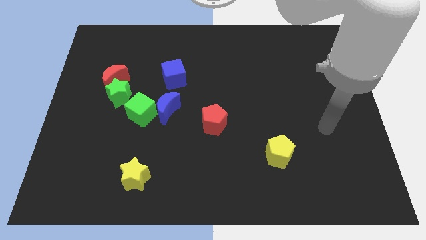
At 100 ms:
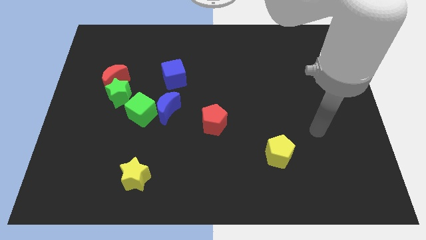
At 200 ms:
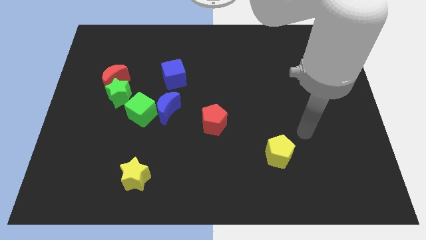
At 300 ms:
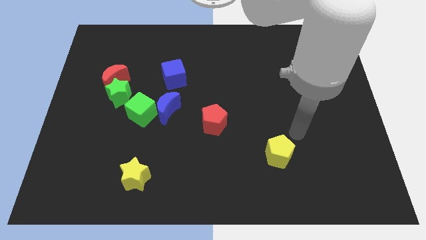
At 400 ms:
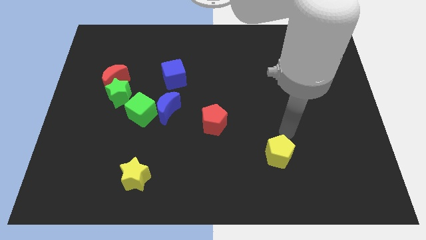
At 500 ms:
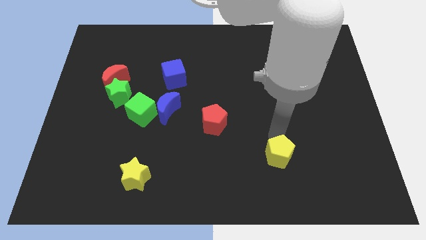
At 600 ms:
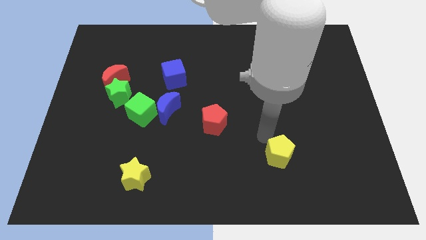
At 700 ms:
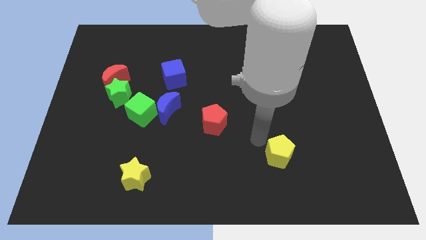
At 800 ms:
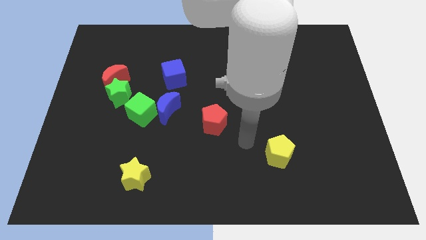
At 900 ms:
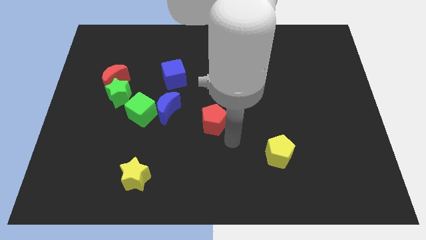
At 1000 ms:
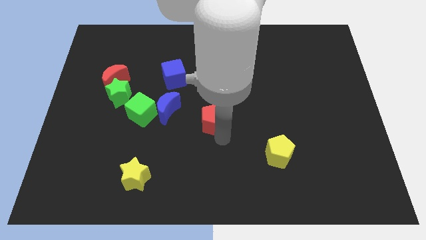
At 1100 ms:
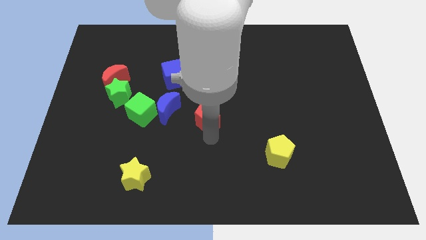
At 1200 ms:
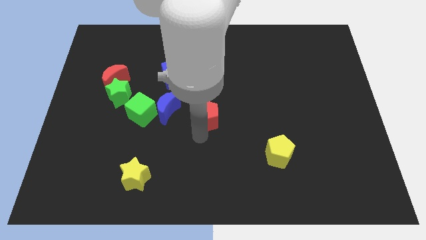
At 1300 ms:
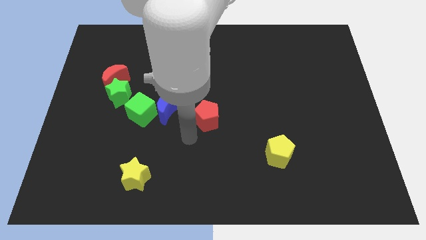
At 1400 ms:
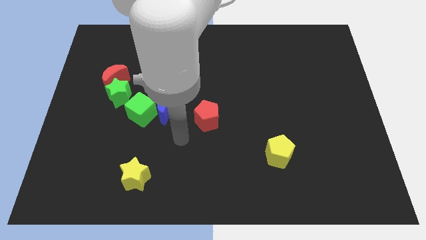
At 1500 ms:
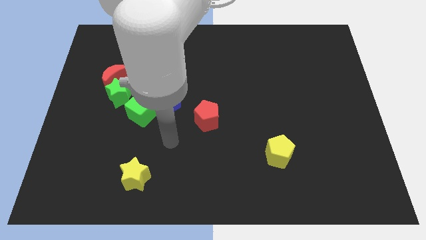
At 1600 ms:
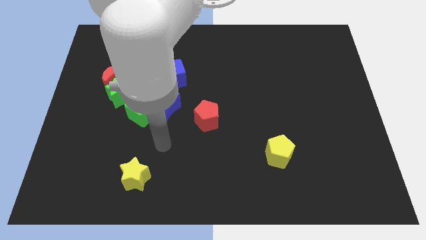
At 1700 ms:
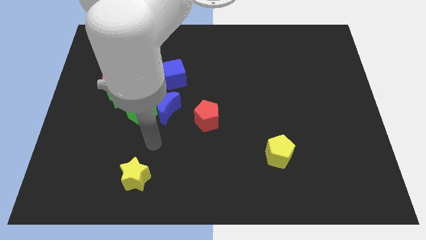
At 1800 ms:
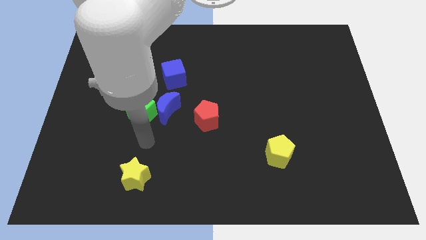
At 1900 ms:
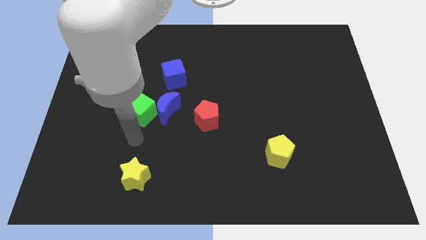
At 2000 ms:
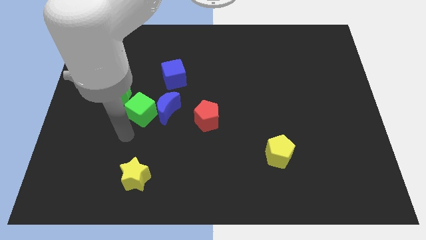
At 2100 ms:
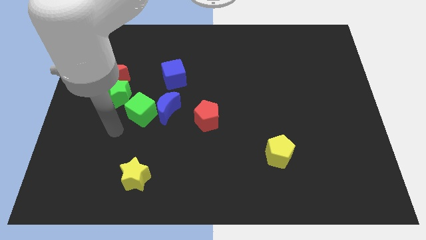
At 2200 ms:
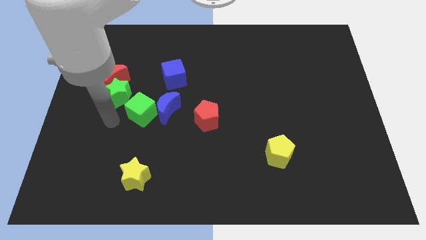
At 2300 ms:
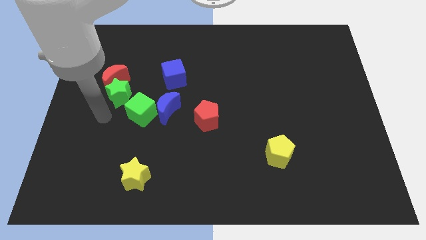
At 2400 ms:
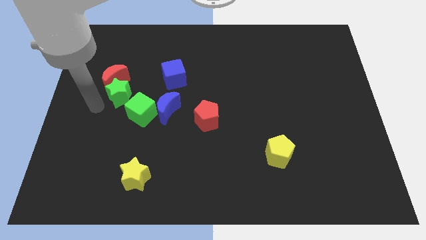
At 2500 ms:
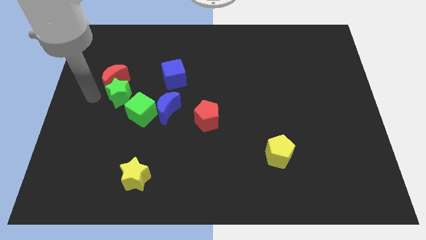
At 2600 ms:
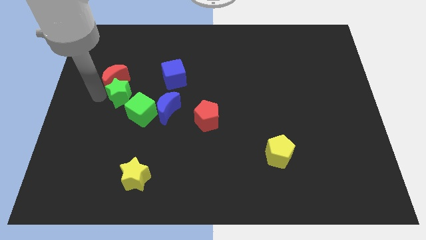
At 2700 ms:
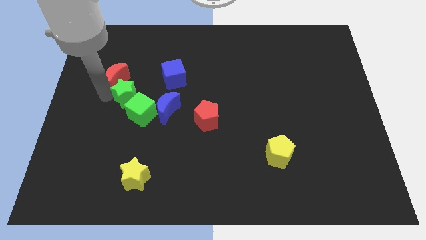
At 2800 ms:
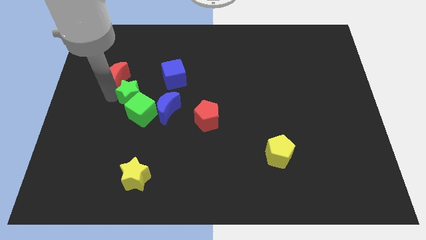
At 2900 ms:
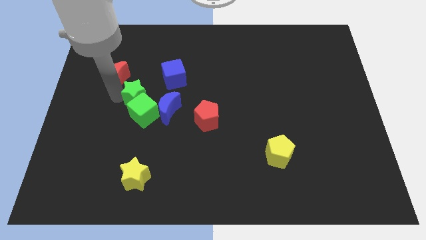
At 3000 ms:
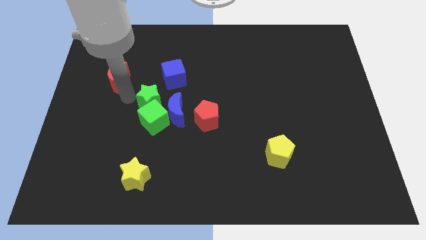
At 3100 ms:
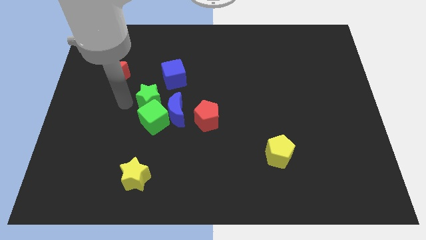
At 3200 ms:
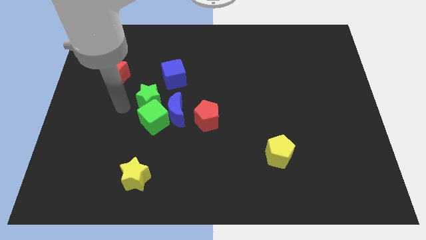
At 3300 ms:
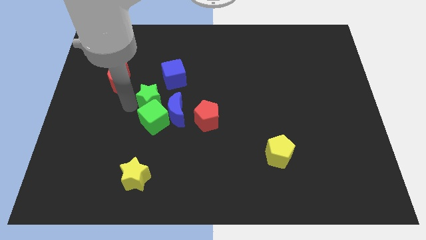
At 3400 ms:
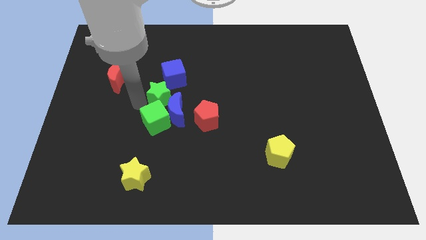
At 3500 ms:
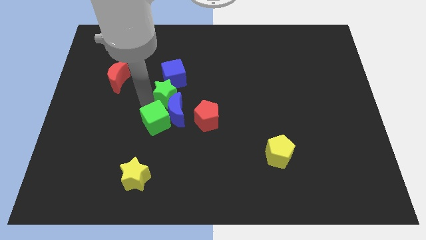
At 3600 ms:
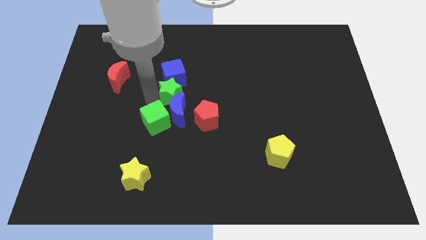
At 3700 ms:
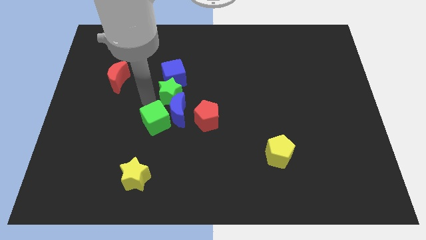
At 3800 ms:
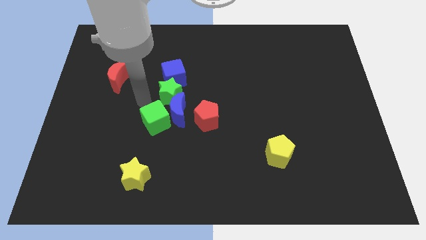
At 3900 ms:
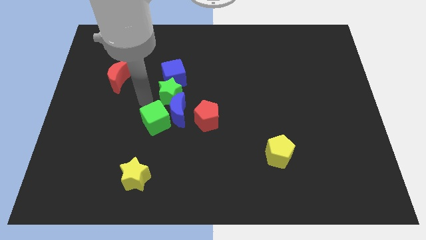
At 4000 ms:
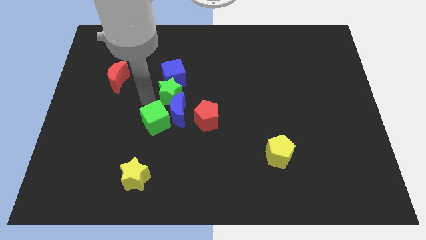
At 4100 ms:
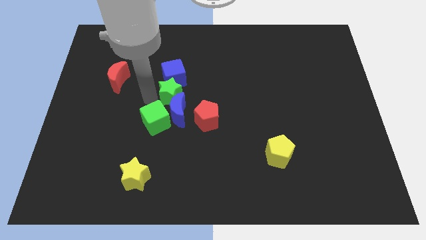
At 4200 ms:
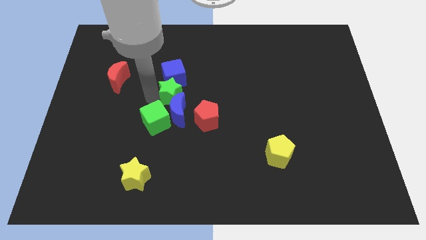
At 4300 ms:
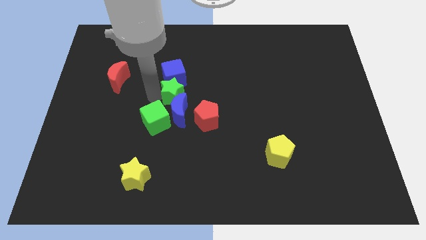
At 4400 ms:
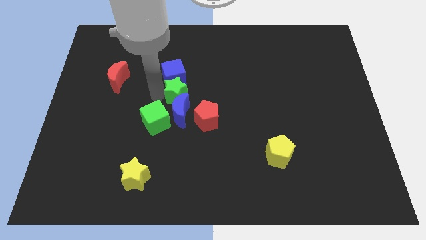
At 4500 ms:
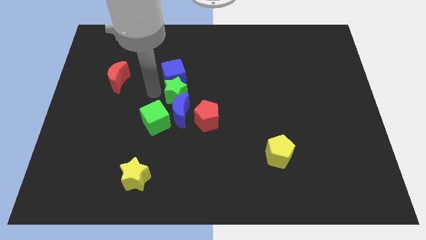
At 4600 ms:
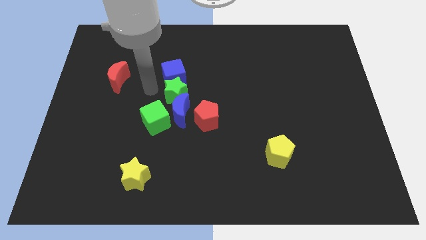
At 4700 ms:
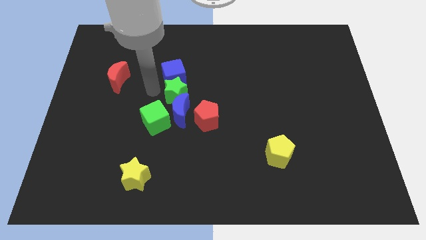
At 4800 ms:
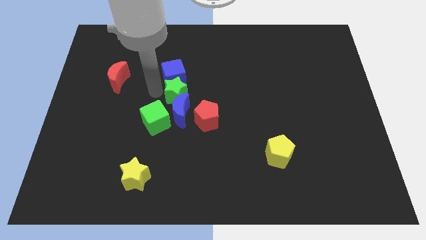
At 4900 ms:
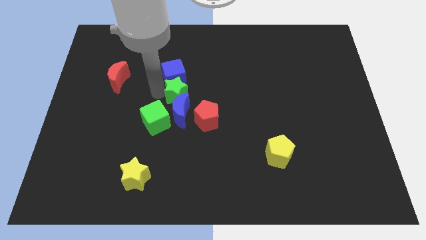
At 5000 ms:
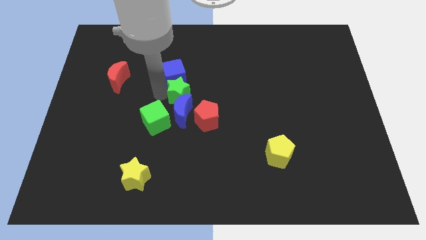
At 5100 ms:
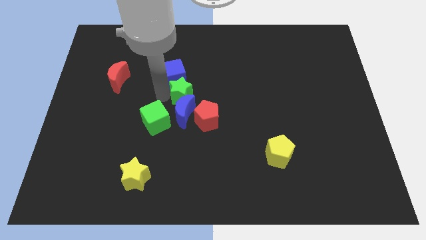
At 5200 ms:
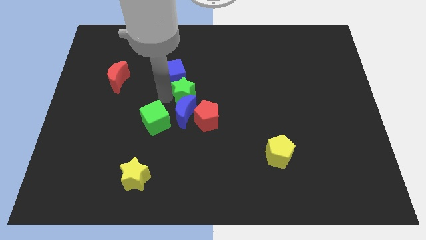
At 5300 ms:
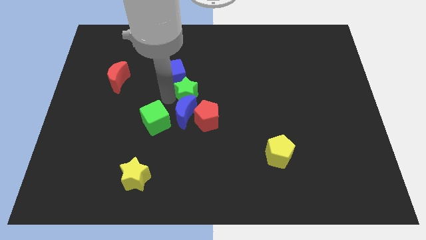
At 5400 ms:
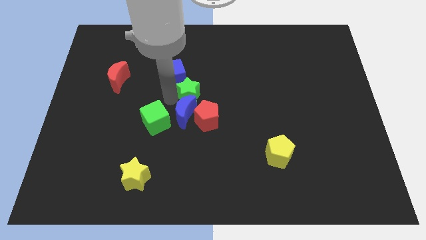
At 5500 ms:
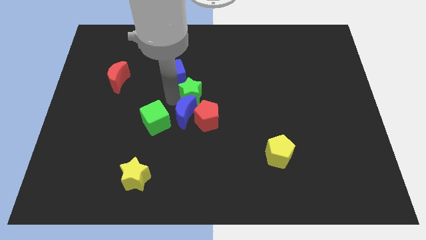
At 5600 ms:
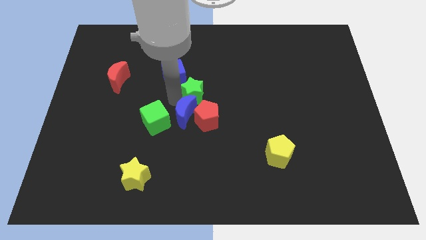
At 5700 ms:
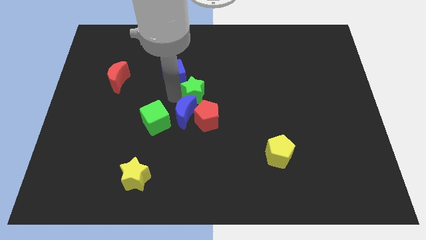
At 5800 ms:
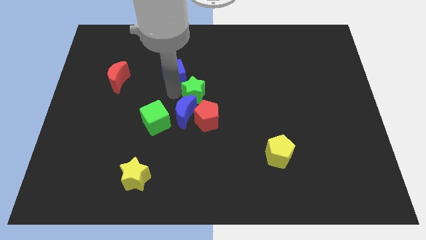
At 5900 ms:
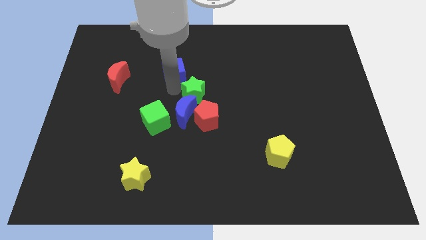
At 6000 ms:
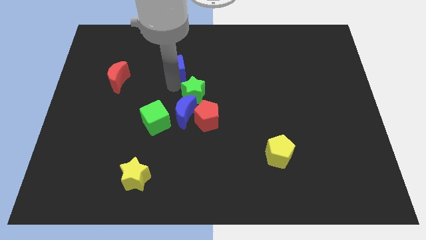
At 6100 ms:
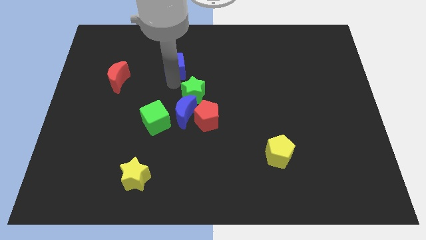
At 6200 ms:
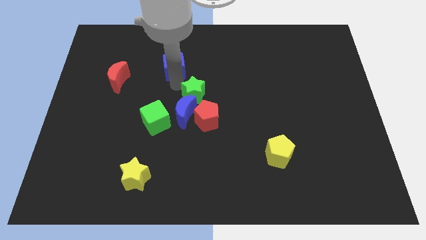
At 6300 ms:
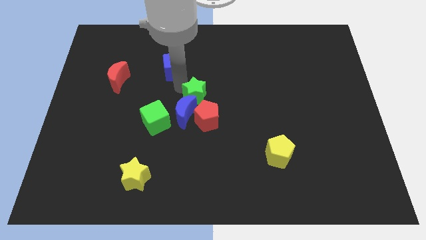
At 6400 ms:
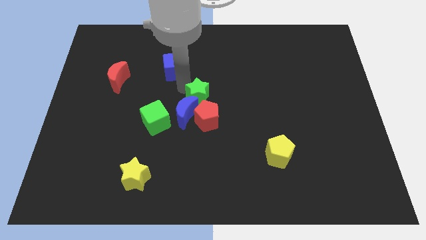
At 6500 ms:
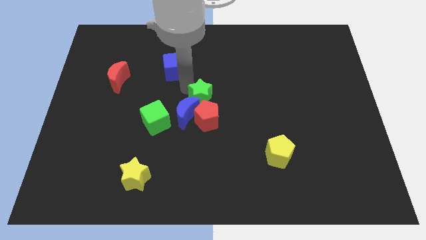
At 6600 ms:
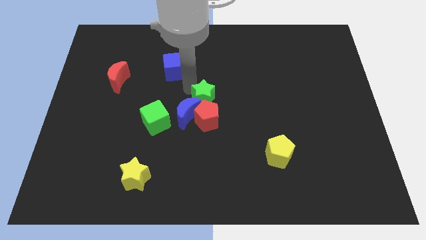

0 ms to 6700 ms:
push the green star close to the red pentagon

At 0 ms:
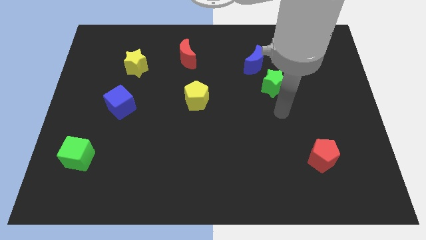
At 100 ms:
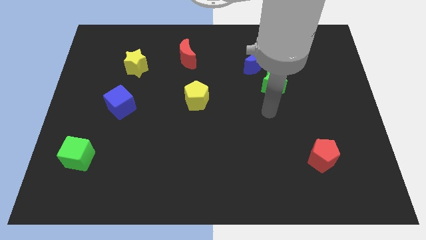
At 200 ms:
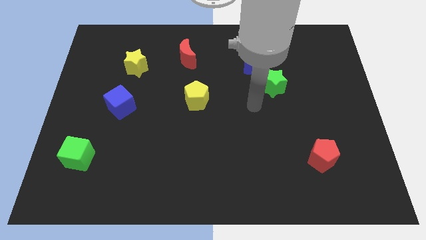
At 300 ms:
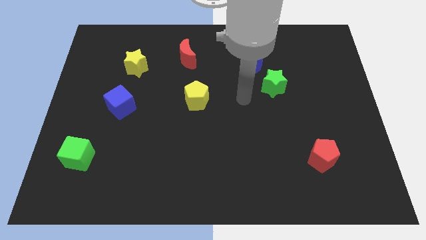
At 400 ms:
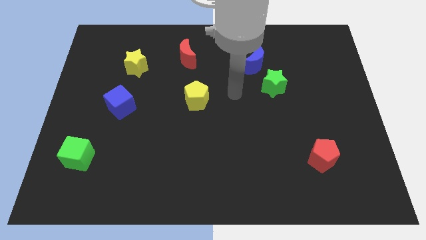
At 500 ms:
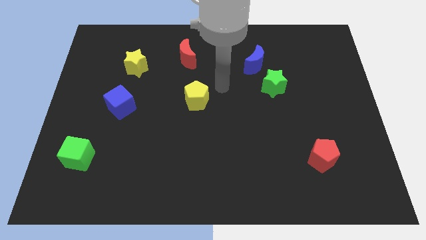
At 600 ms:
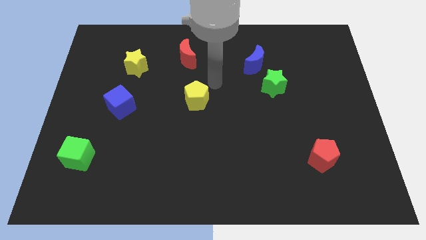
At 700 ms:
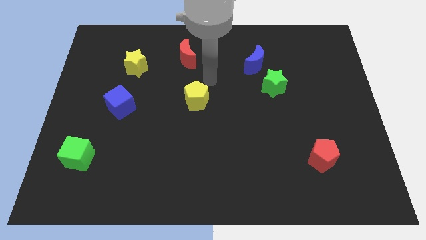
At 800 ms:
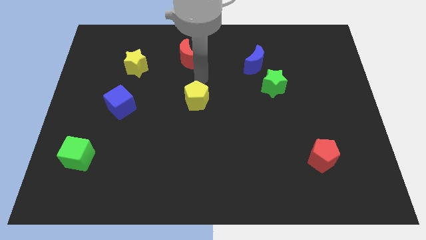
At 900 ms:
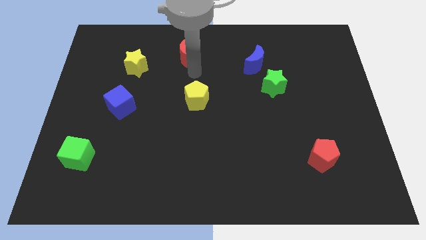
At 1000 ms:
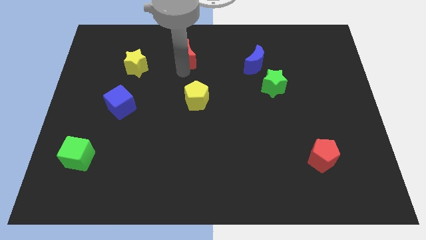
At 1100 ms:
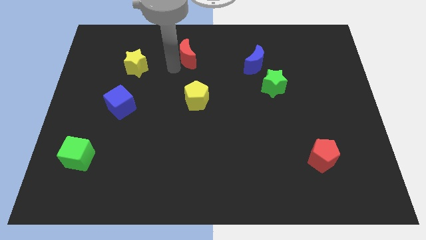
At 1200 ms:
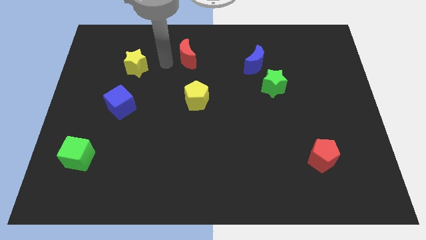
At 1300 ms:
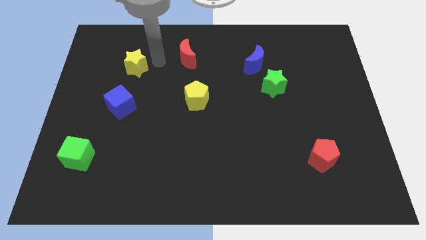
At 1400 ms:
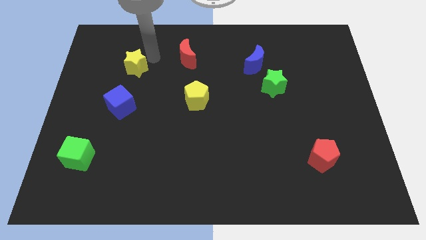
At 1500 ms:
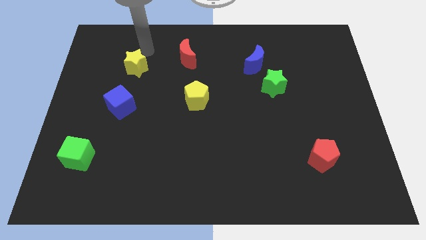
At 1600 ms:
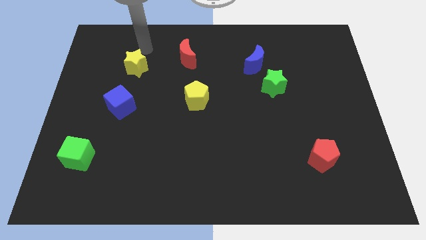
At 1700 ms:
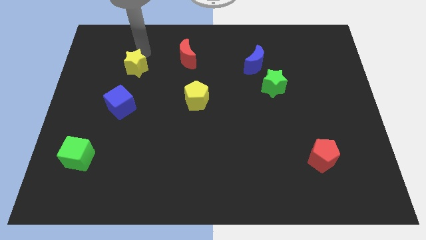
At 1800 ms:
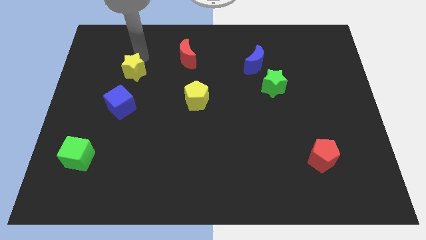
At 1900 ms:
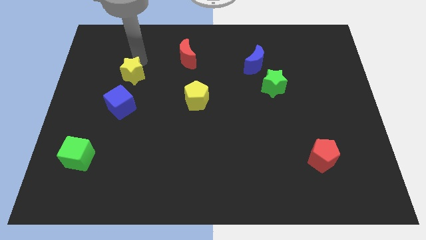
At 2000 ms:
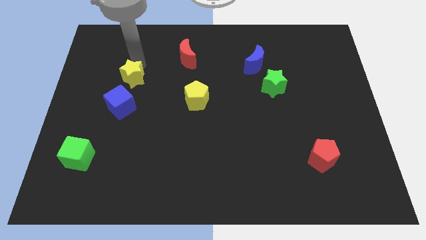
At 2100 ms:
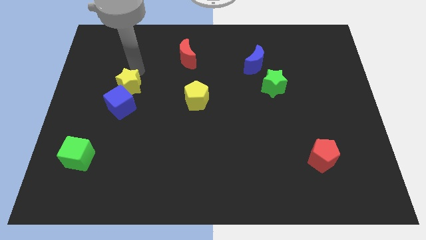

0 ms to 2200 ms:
push the yellow star close to the blue cube
